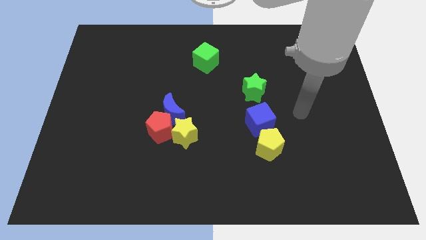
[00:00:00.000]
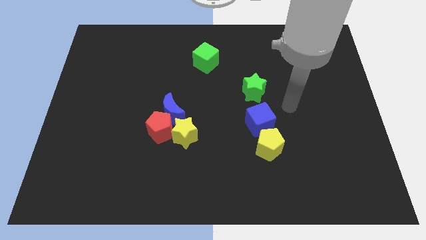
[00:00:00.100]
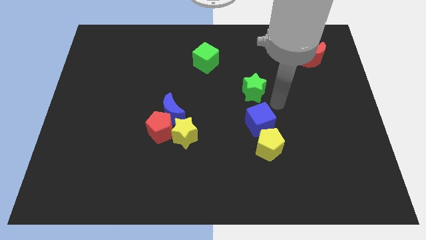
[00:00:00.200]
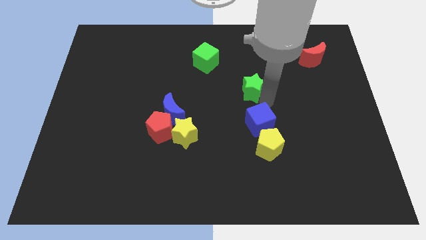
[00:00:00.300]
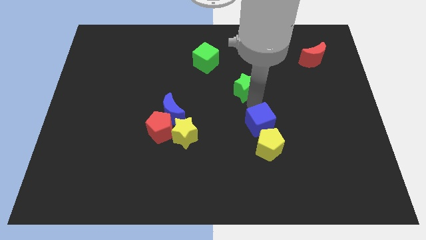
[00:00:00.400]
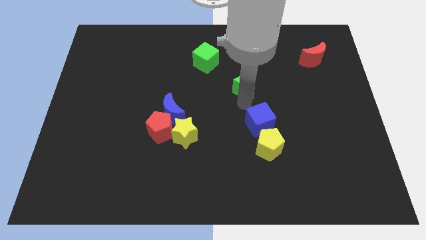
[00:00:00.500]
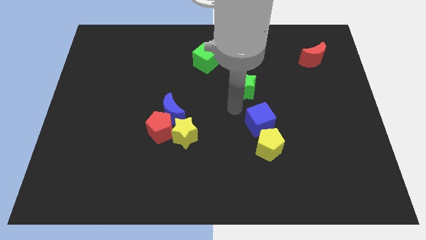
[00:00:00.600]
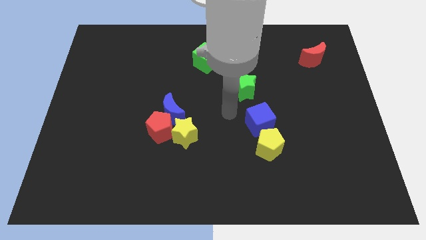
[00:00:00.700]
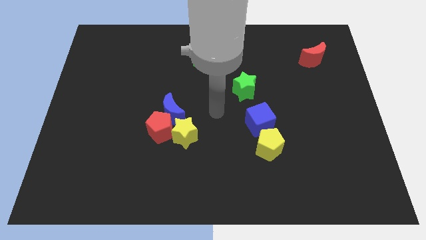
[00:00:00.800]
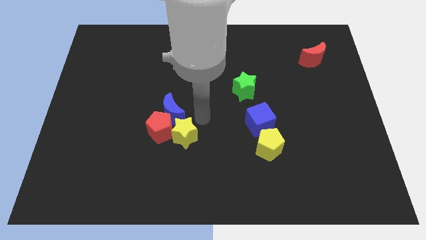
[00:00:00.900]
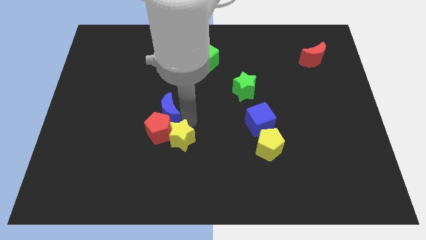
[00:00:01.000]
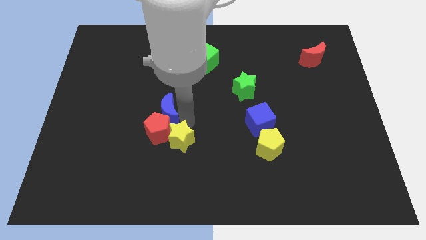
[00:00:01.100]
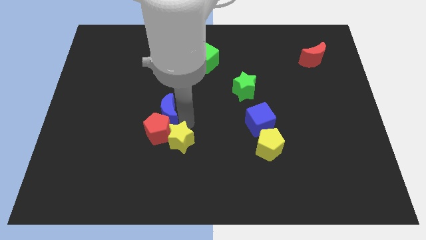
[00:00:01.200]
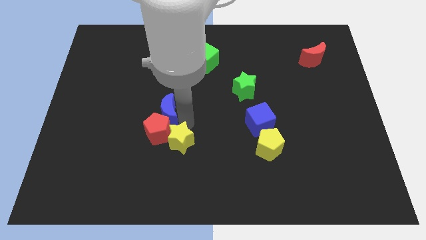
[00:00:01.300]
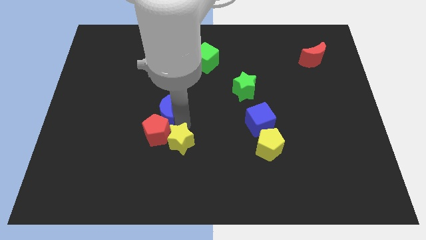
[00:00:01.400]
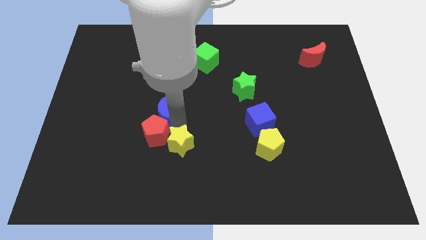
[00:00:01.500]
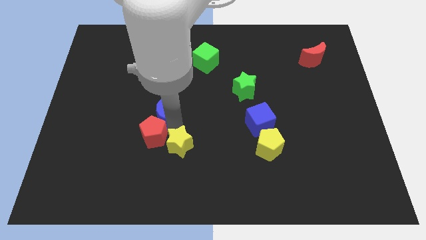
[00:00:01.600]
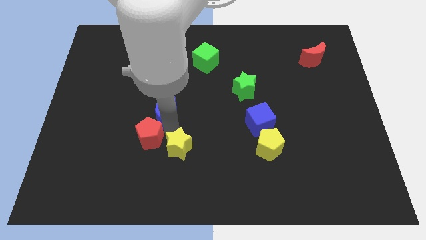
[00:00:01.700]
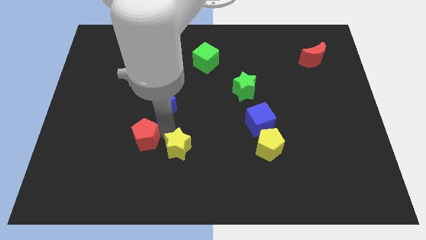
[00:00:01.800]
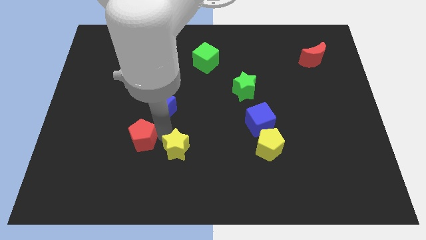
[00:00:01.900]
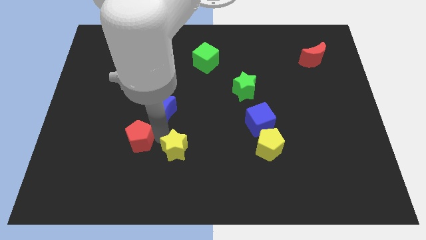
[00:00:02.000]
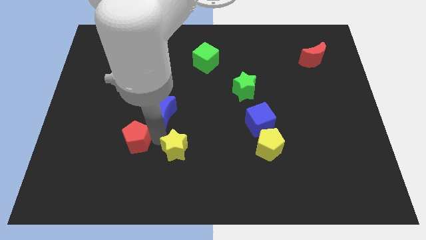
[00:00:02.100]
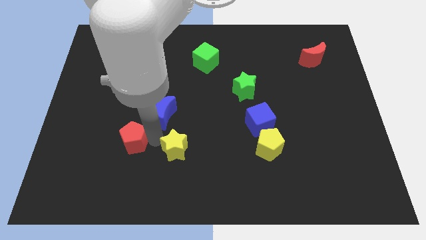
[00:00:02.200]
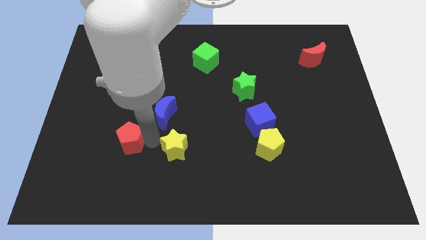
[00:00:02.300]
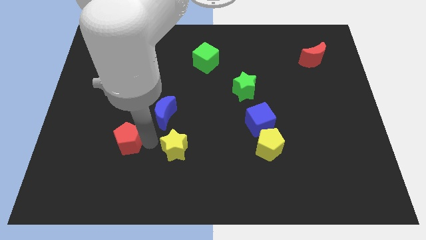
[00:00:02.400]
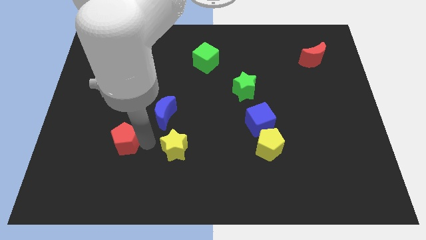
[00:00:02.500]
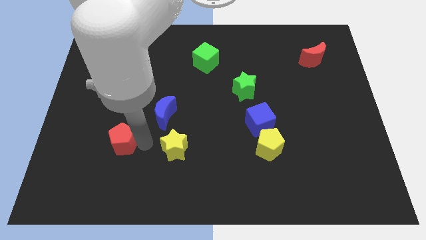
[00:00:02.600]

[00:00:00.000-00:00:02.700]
pull the red pentagon apart from the blue moon and yellow star

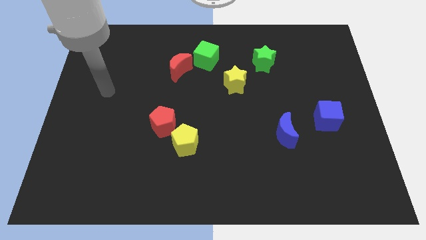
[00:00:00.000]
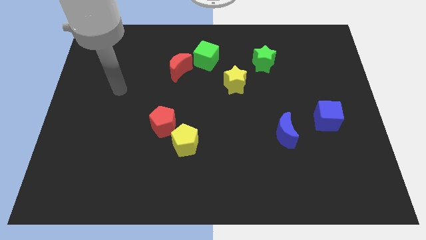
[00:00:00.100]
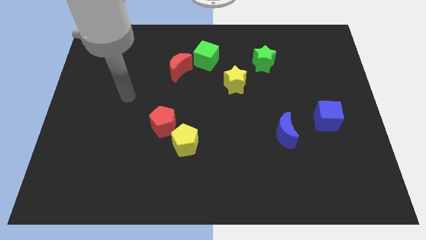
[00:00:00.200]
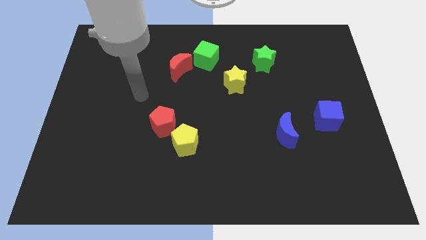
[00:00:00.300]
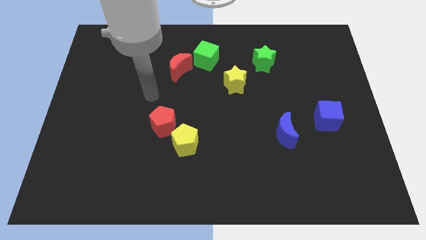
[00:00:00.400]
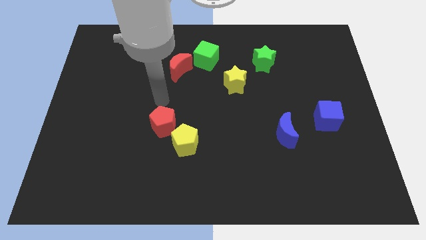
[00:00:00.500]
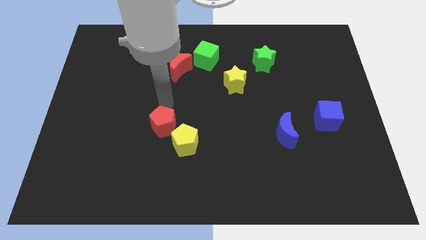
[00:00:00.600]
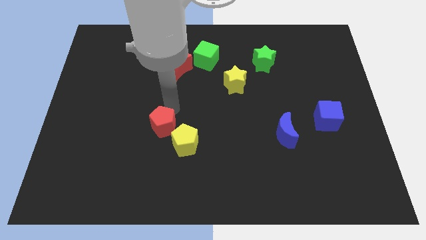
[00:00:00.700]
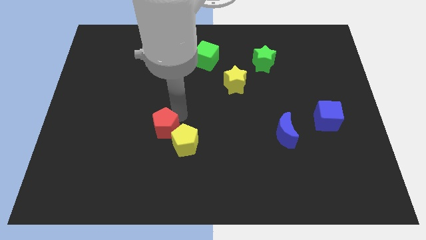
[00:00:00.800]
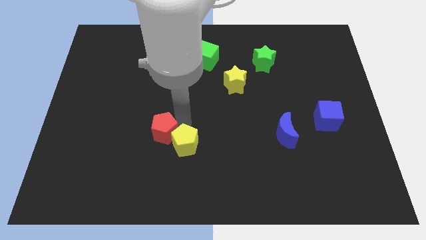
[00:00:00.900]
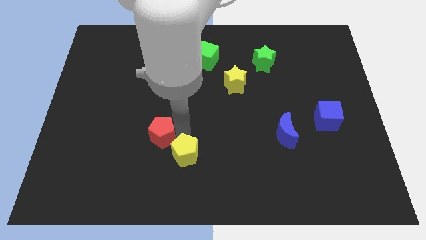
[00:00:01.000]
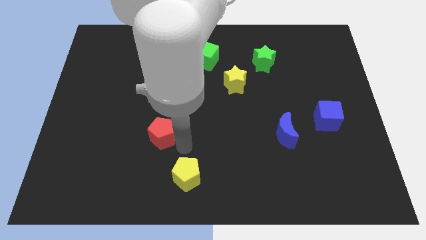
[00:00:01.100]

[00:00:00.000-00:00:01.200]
move the red pentagon away from the yellow pentagon

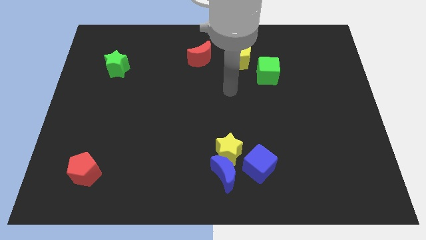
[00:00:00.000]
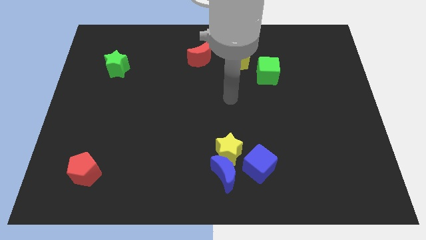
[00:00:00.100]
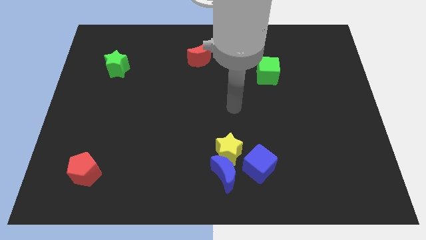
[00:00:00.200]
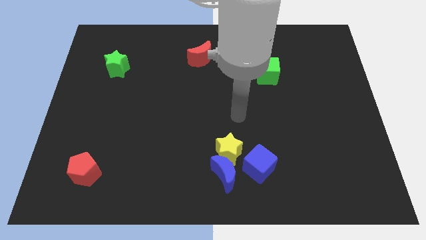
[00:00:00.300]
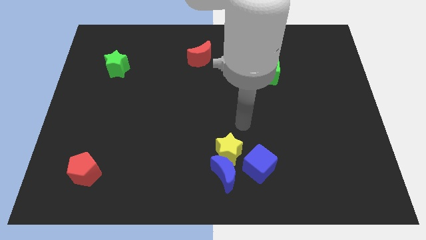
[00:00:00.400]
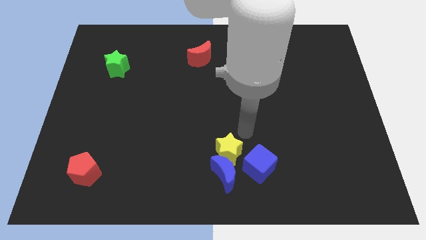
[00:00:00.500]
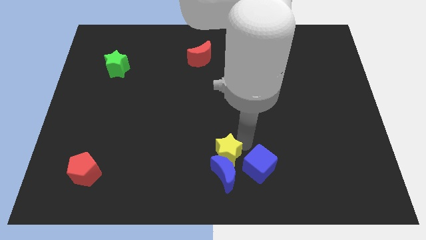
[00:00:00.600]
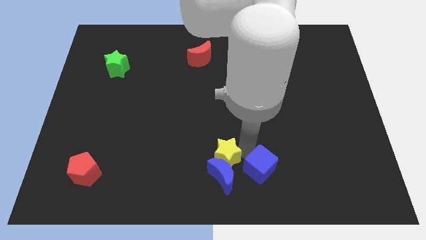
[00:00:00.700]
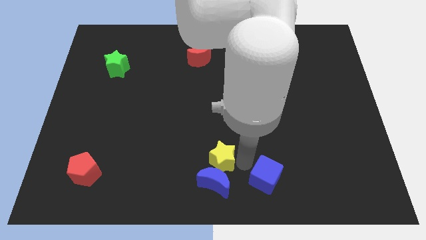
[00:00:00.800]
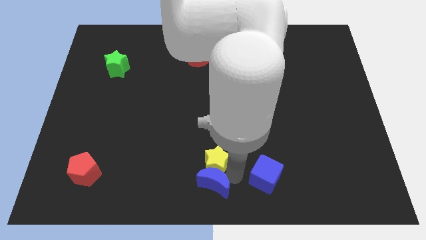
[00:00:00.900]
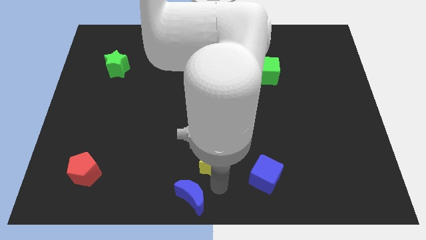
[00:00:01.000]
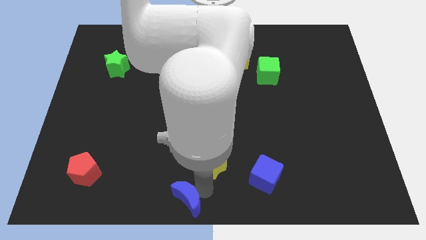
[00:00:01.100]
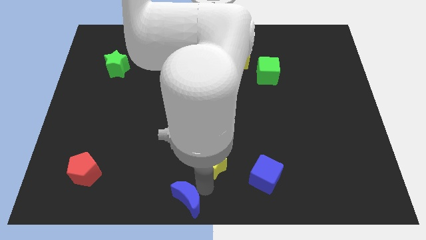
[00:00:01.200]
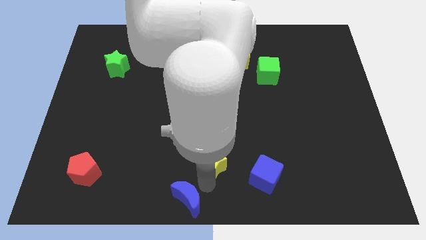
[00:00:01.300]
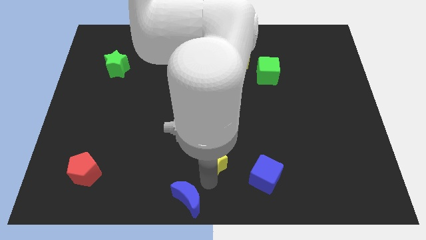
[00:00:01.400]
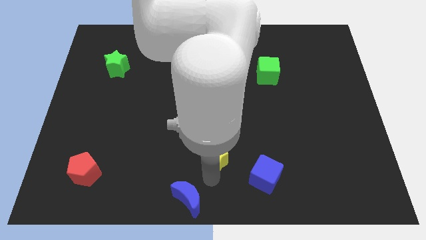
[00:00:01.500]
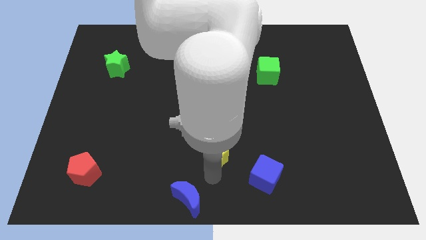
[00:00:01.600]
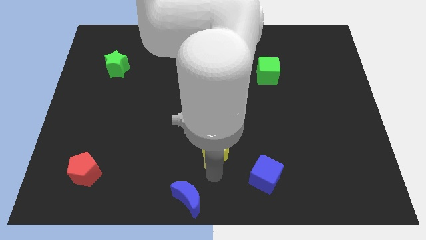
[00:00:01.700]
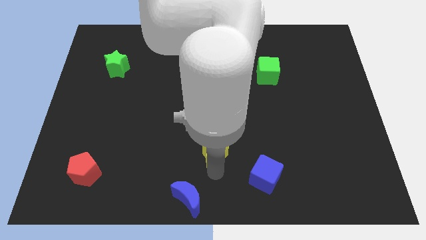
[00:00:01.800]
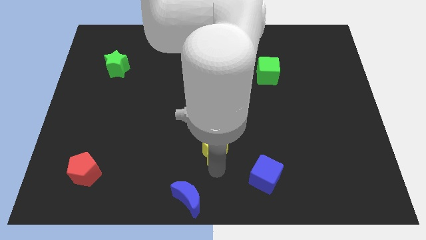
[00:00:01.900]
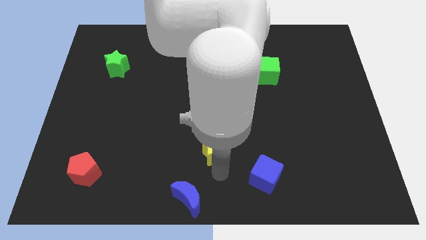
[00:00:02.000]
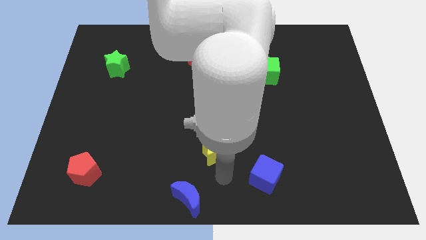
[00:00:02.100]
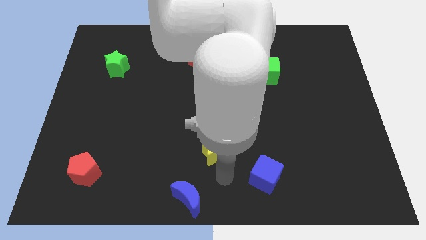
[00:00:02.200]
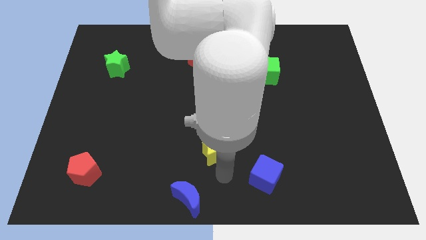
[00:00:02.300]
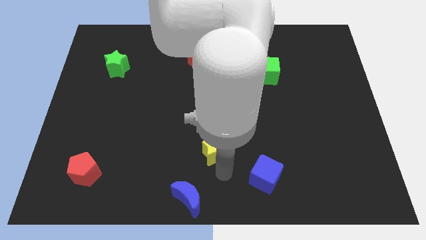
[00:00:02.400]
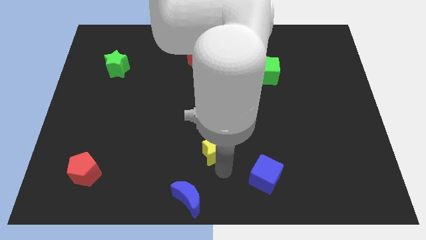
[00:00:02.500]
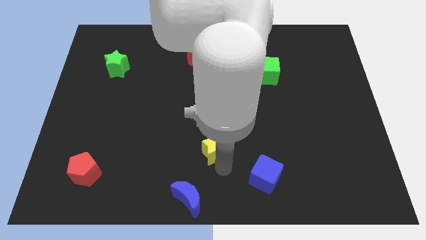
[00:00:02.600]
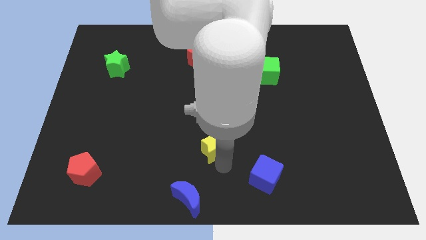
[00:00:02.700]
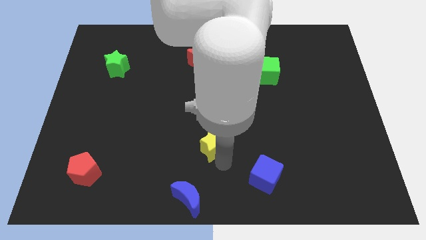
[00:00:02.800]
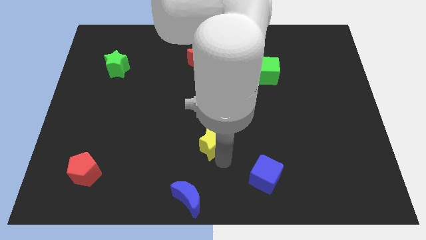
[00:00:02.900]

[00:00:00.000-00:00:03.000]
separate the yellow star from the blue moon and blue cube

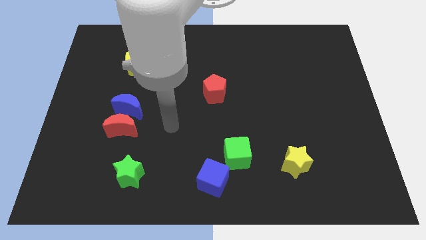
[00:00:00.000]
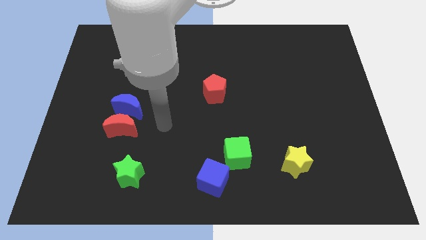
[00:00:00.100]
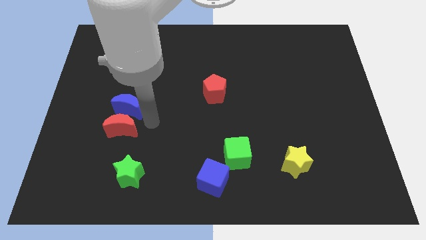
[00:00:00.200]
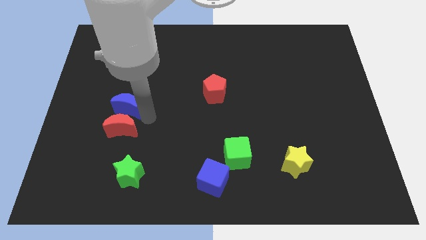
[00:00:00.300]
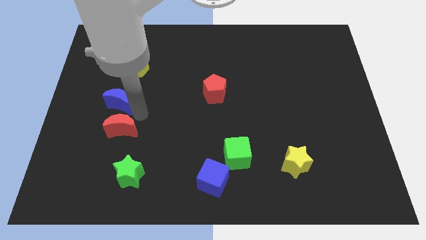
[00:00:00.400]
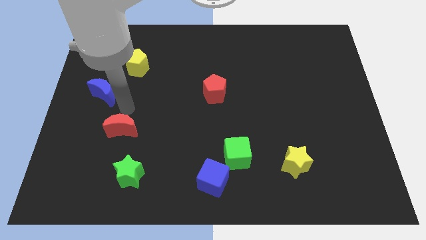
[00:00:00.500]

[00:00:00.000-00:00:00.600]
pull the red moon apart from the blue moon

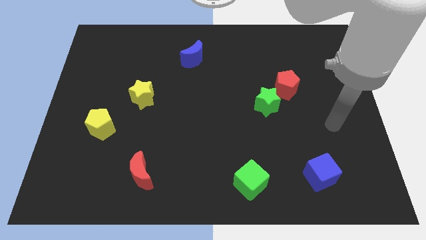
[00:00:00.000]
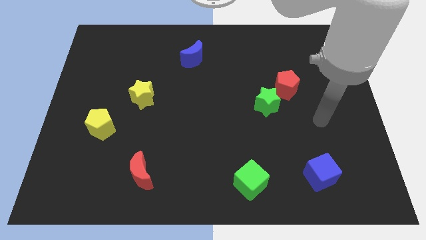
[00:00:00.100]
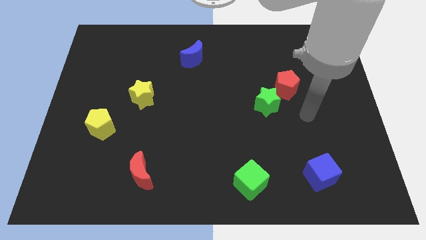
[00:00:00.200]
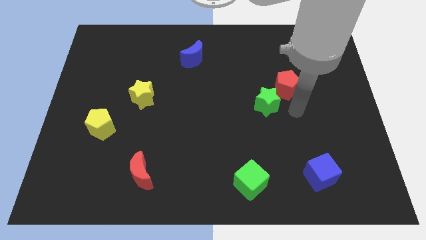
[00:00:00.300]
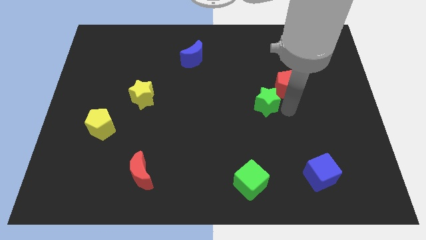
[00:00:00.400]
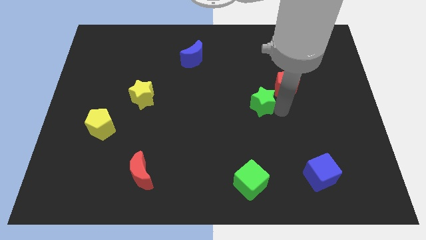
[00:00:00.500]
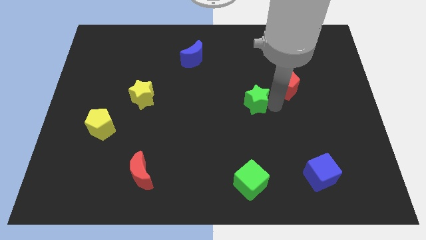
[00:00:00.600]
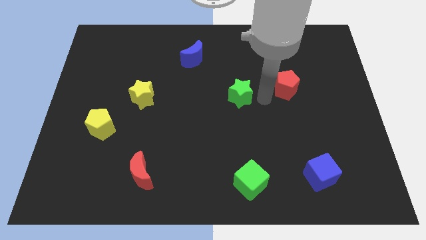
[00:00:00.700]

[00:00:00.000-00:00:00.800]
move the red pentagon away from the green star

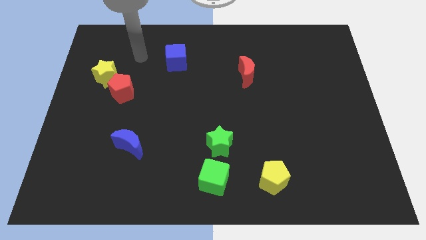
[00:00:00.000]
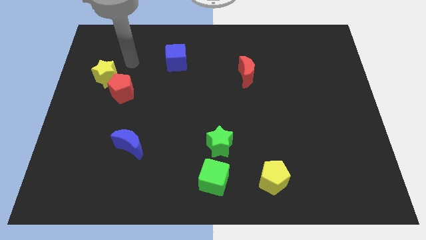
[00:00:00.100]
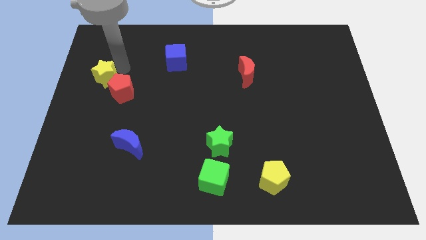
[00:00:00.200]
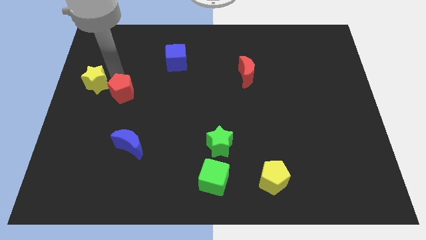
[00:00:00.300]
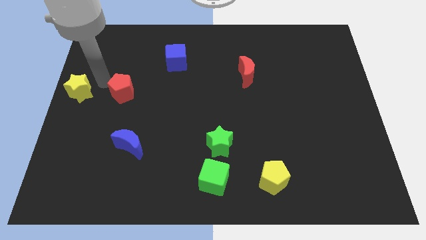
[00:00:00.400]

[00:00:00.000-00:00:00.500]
move the red pentagon away from the yellow star

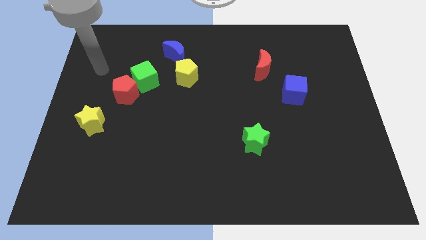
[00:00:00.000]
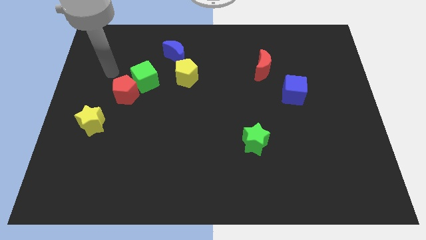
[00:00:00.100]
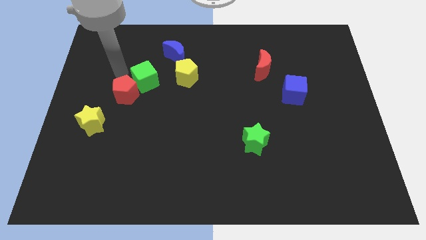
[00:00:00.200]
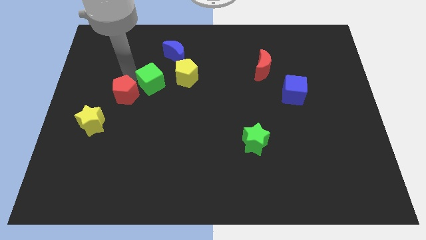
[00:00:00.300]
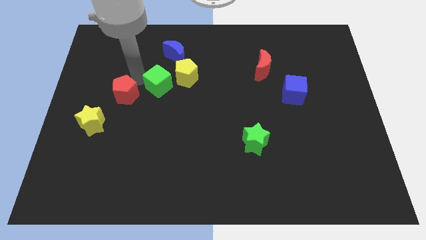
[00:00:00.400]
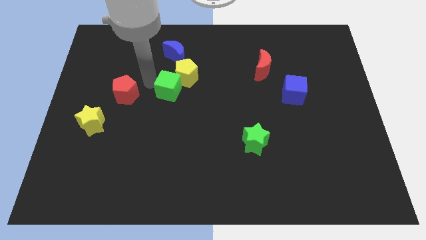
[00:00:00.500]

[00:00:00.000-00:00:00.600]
separate the red pentagon from the green cube
